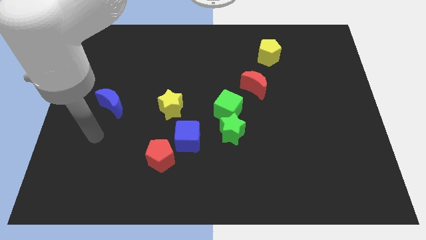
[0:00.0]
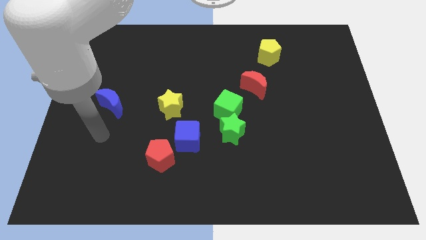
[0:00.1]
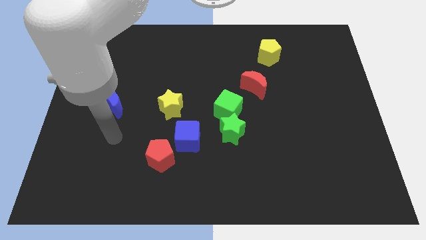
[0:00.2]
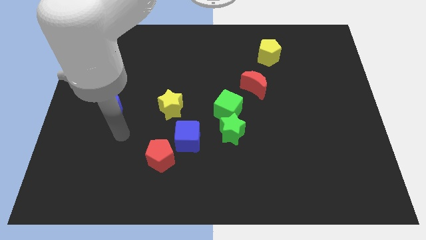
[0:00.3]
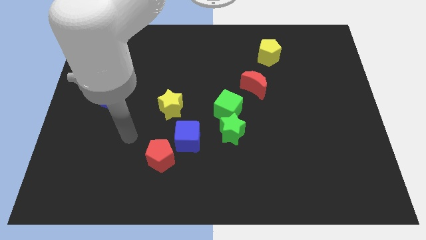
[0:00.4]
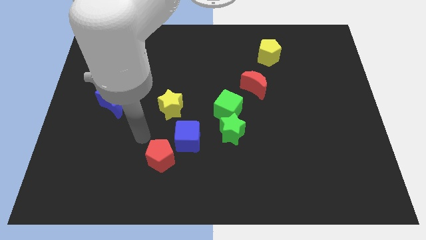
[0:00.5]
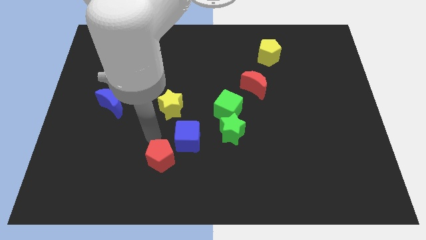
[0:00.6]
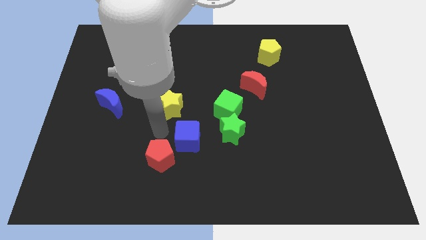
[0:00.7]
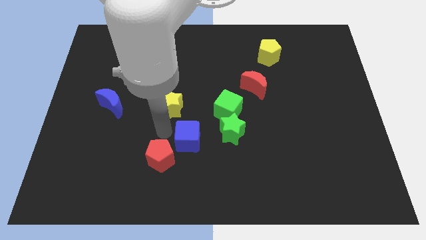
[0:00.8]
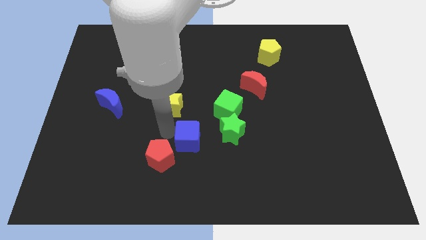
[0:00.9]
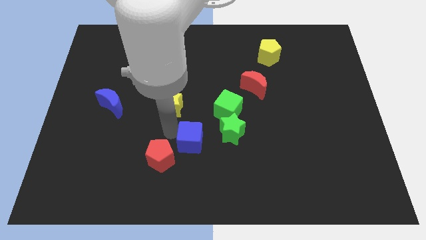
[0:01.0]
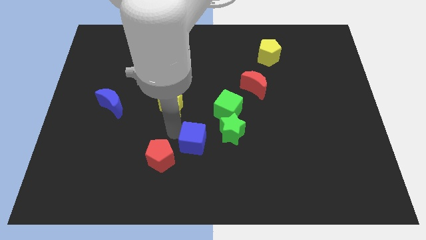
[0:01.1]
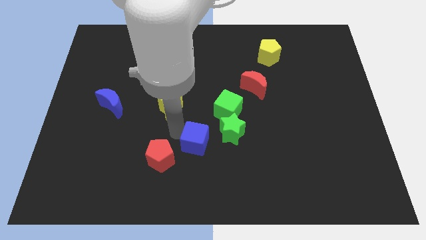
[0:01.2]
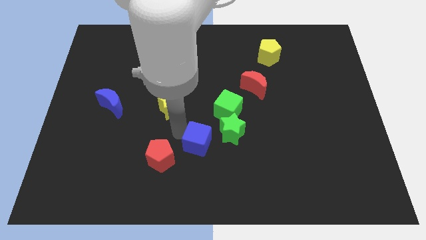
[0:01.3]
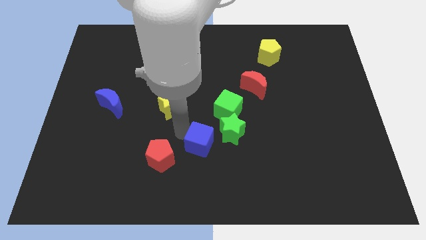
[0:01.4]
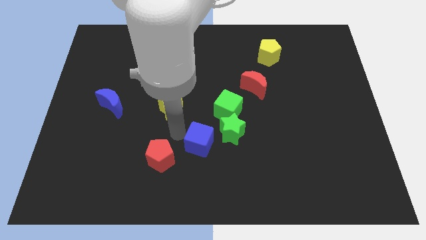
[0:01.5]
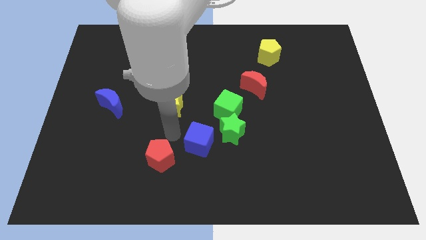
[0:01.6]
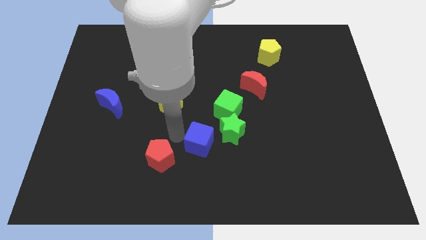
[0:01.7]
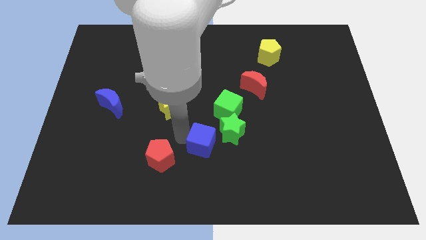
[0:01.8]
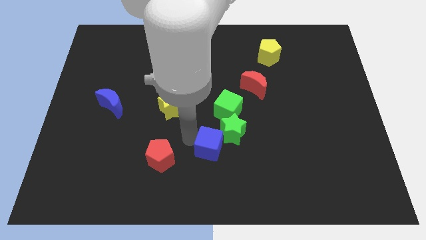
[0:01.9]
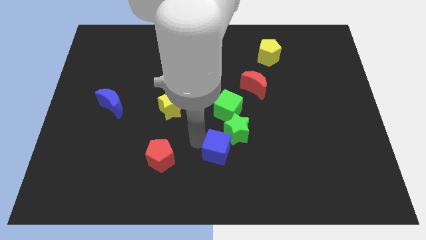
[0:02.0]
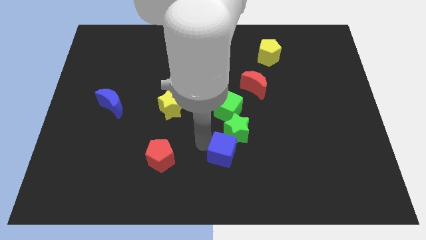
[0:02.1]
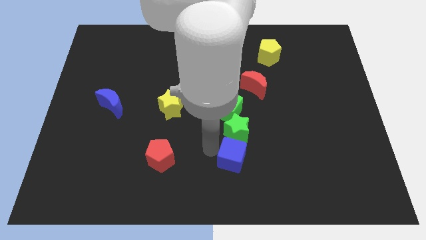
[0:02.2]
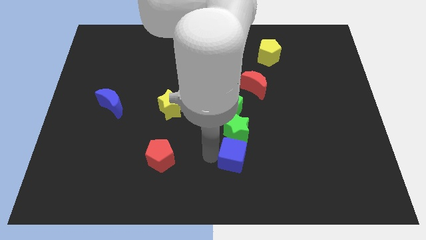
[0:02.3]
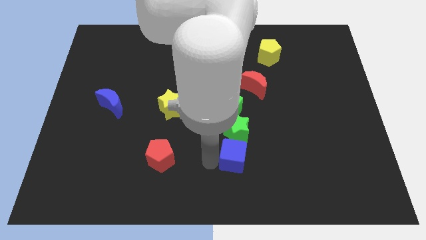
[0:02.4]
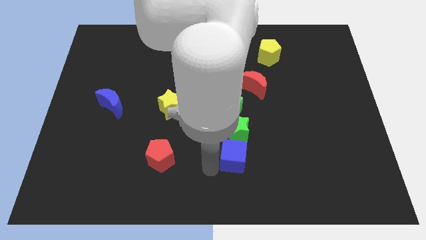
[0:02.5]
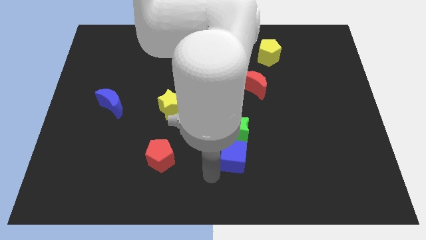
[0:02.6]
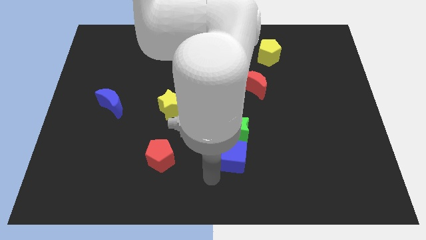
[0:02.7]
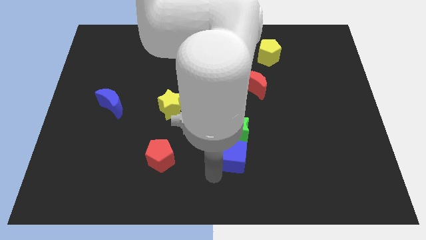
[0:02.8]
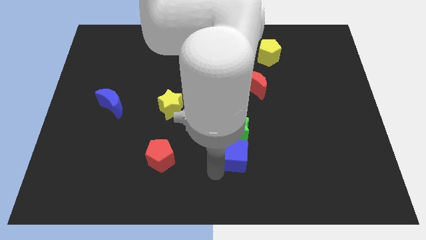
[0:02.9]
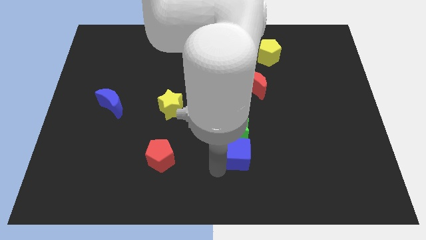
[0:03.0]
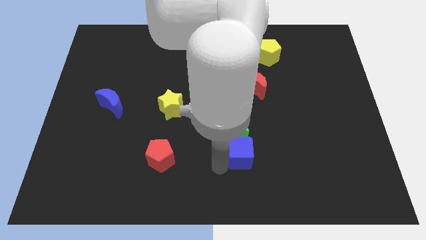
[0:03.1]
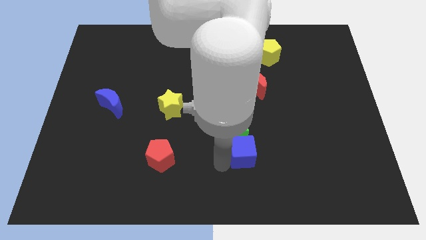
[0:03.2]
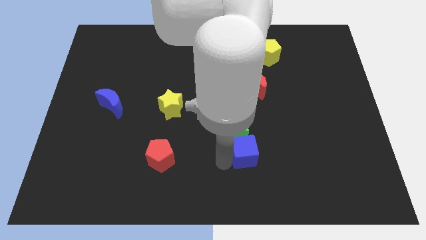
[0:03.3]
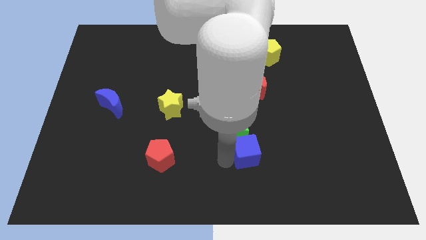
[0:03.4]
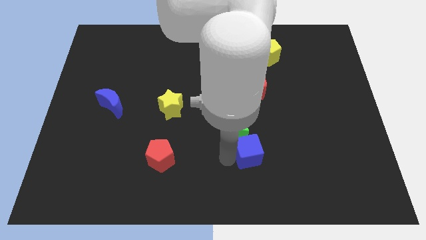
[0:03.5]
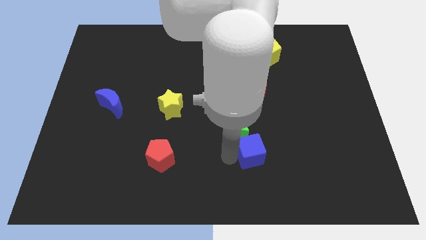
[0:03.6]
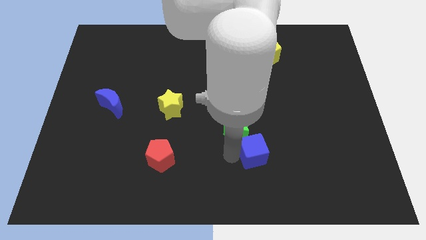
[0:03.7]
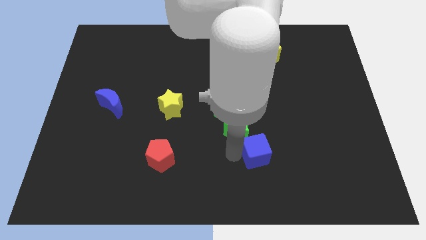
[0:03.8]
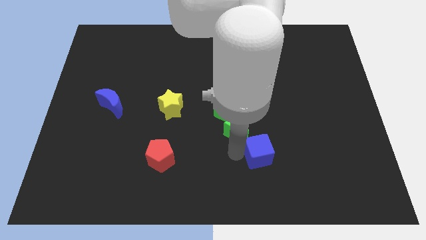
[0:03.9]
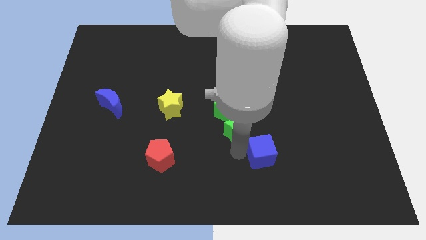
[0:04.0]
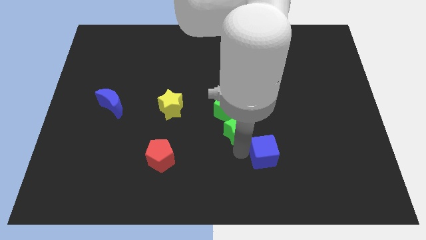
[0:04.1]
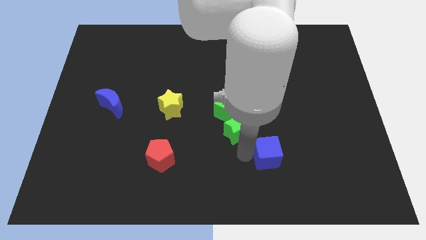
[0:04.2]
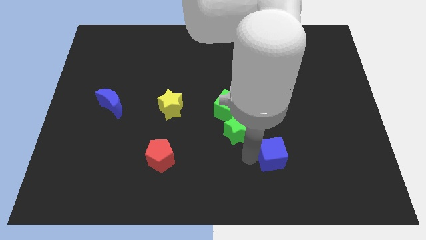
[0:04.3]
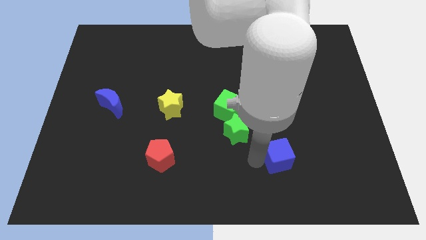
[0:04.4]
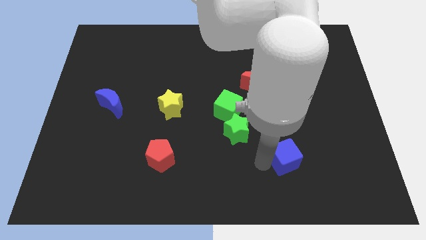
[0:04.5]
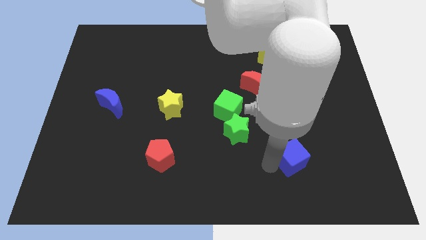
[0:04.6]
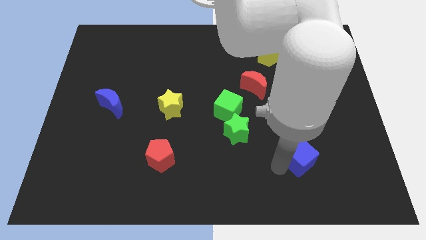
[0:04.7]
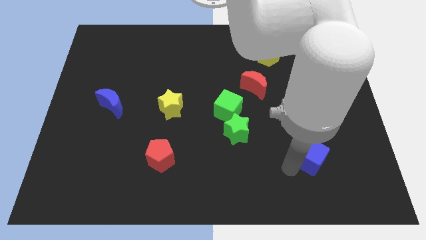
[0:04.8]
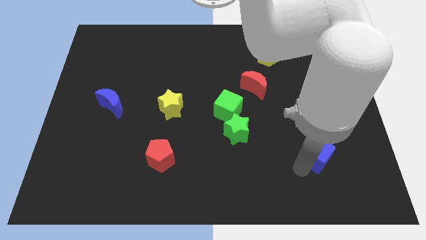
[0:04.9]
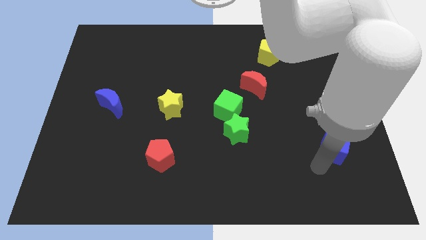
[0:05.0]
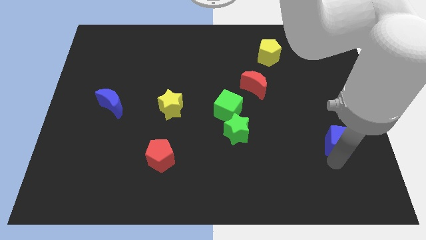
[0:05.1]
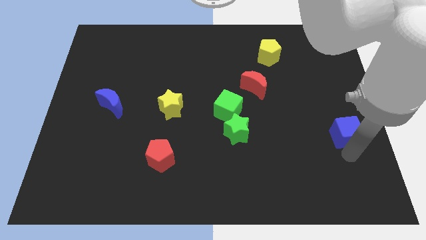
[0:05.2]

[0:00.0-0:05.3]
put the blue cube to the right side of the board

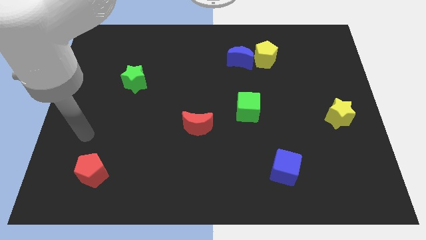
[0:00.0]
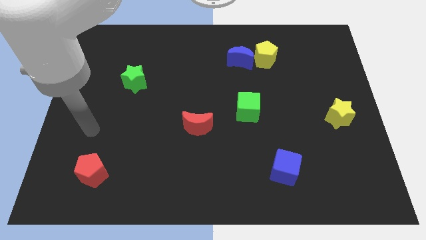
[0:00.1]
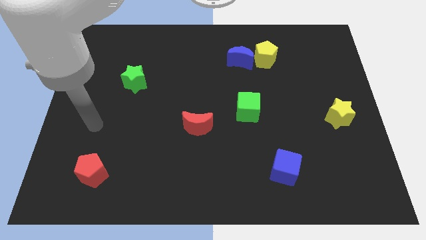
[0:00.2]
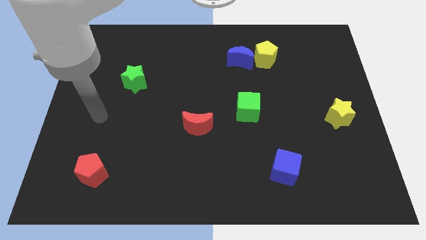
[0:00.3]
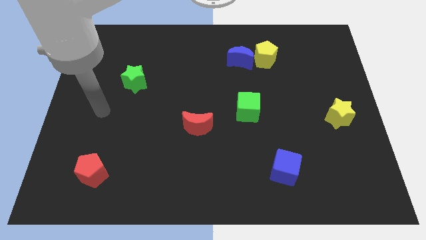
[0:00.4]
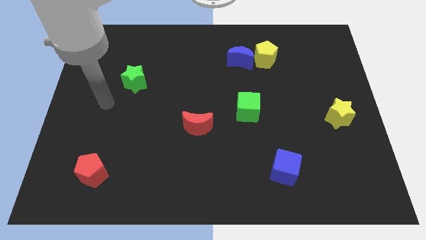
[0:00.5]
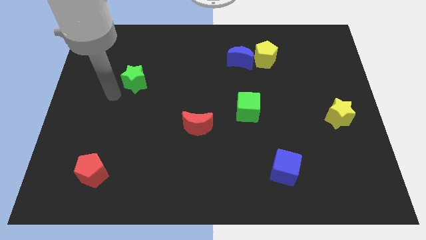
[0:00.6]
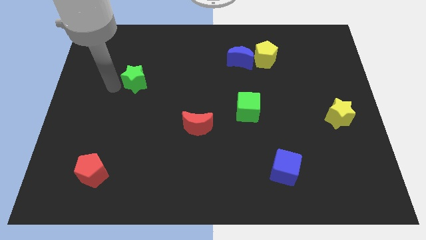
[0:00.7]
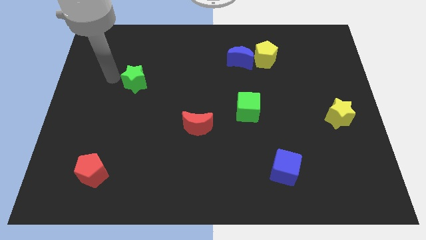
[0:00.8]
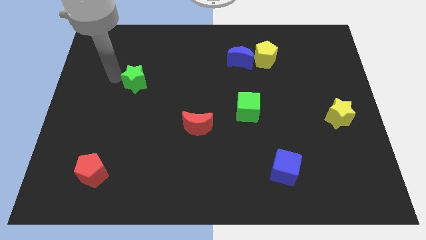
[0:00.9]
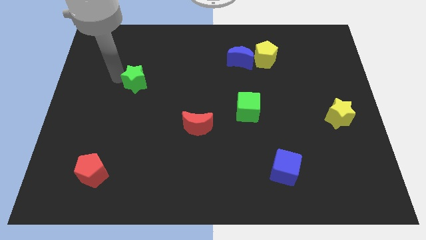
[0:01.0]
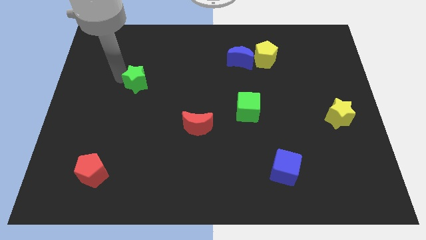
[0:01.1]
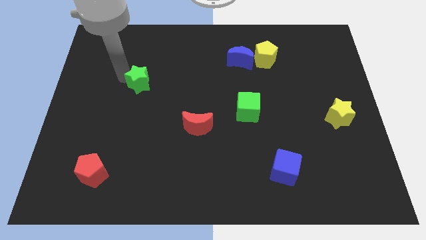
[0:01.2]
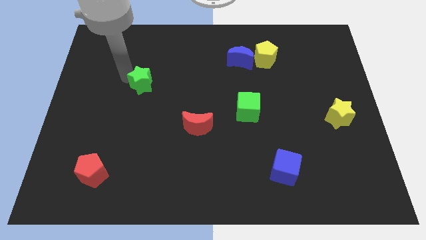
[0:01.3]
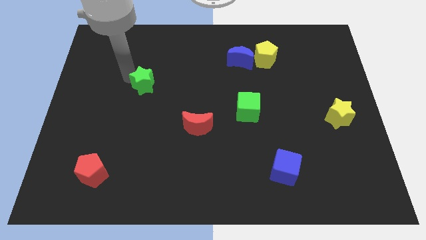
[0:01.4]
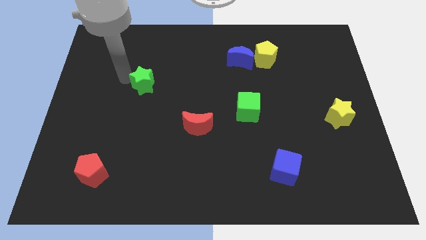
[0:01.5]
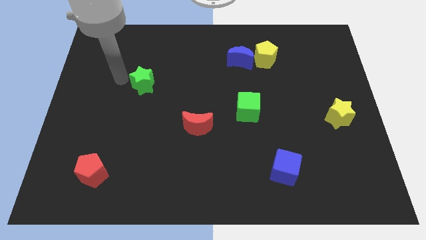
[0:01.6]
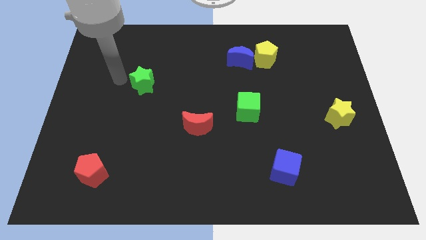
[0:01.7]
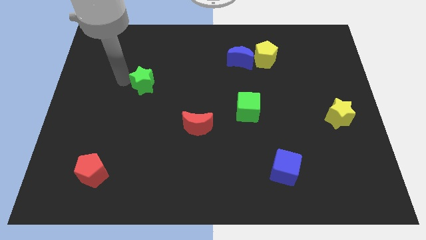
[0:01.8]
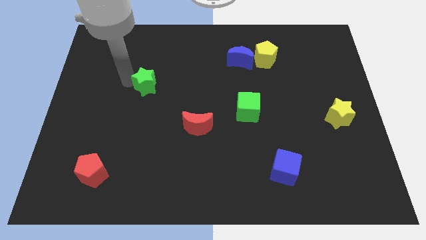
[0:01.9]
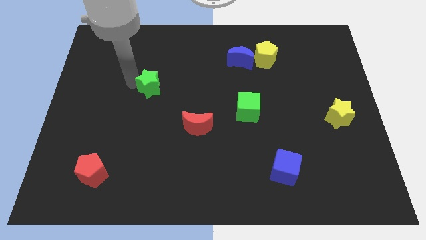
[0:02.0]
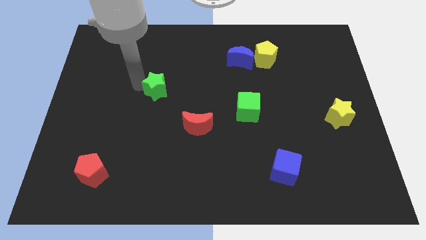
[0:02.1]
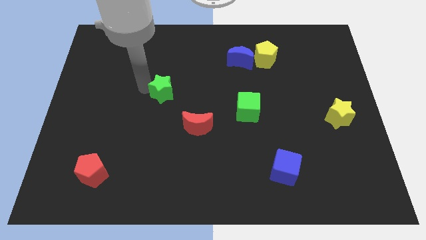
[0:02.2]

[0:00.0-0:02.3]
move the green star to the center of the board
